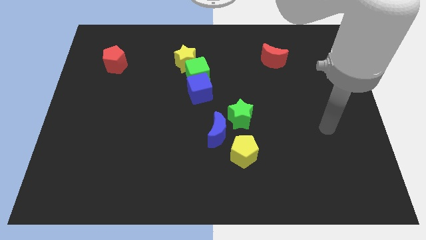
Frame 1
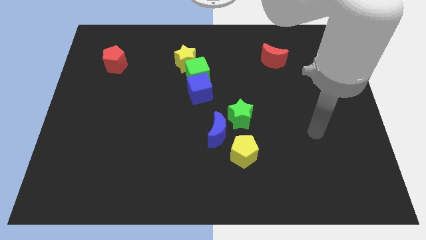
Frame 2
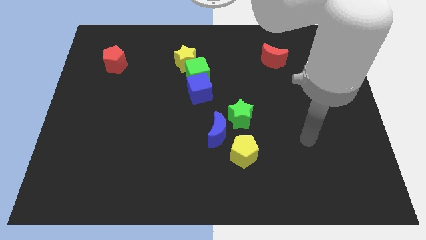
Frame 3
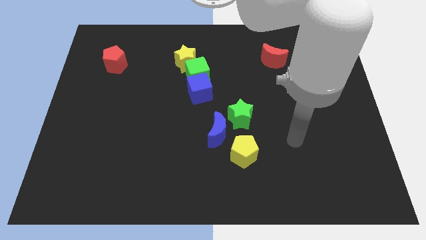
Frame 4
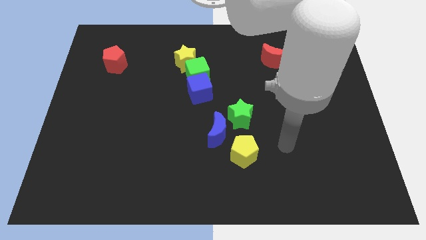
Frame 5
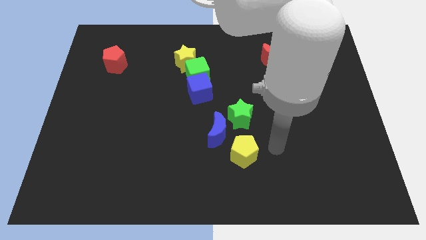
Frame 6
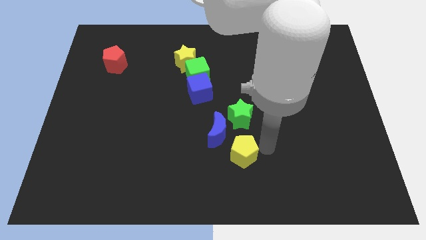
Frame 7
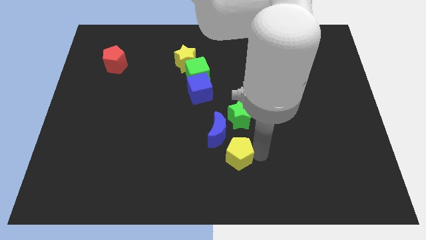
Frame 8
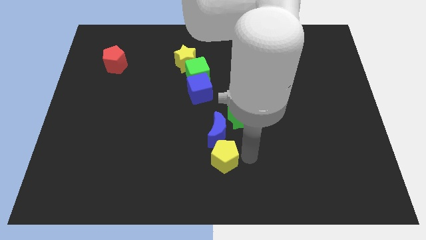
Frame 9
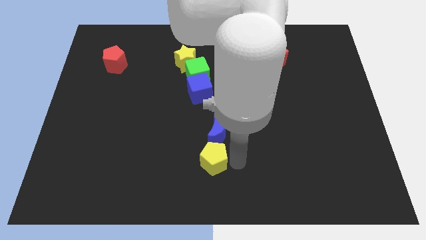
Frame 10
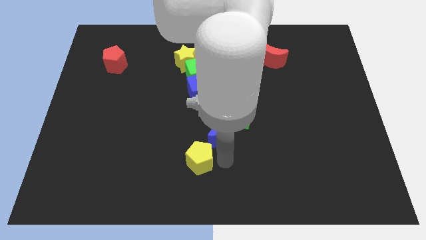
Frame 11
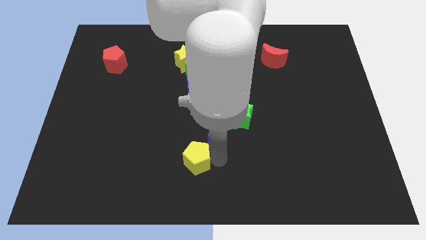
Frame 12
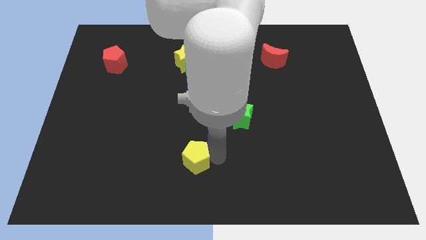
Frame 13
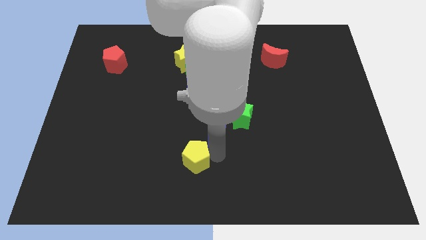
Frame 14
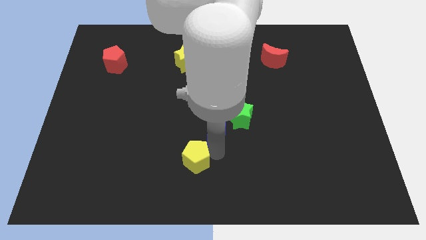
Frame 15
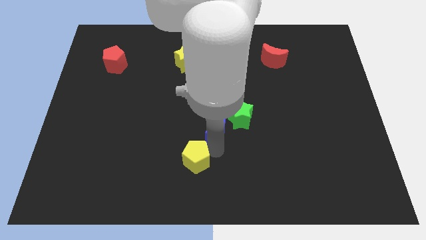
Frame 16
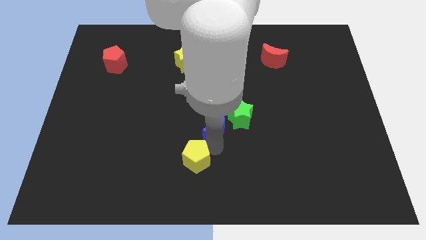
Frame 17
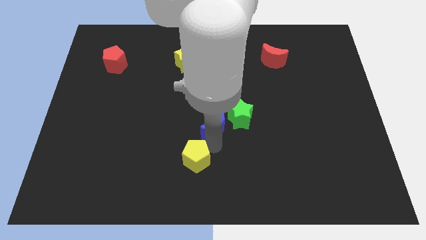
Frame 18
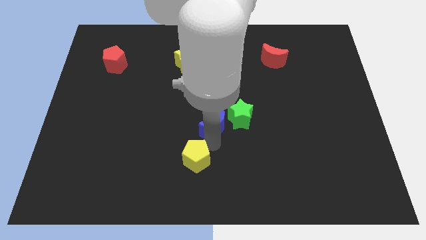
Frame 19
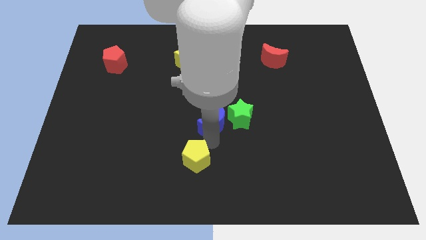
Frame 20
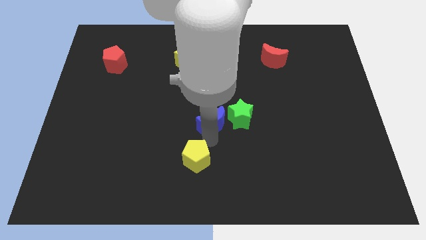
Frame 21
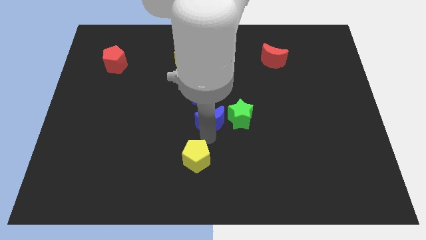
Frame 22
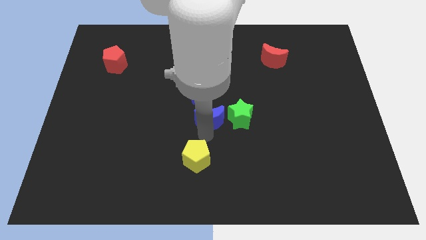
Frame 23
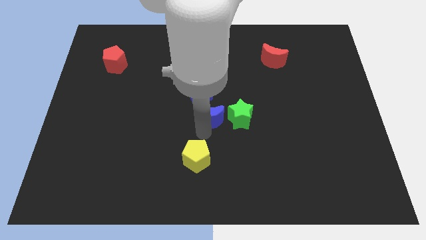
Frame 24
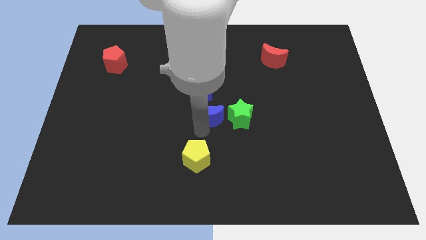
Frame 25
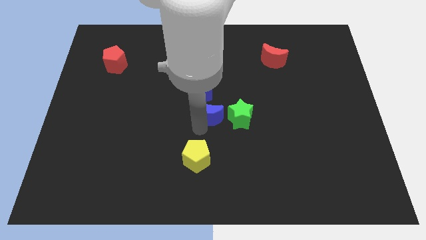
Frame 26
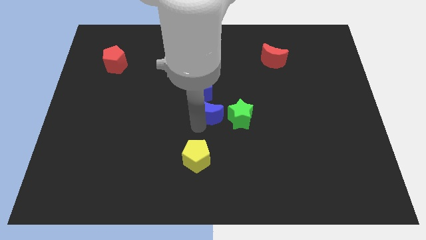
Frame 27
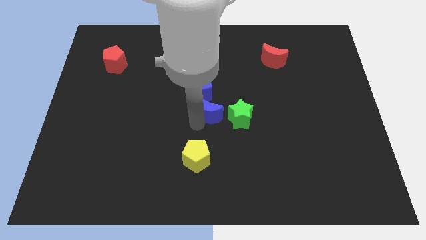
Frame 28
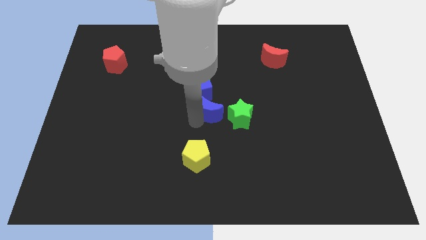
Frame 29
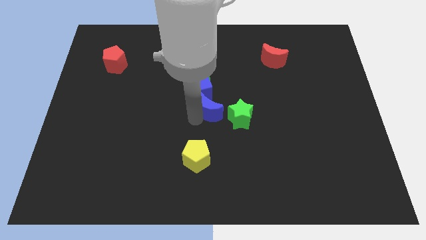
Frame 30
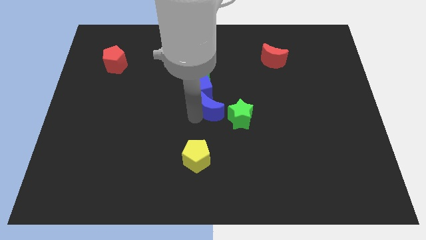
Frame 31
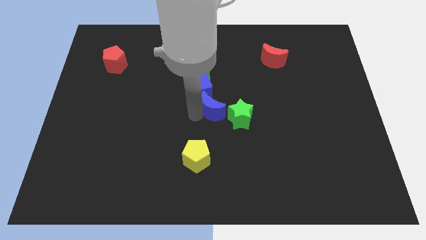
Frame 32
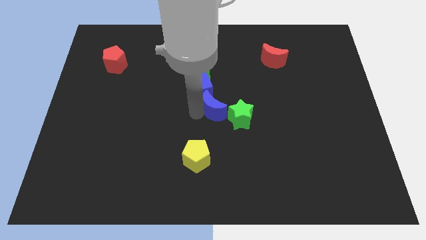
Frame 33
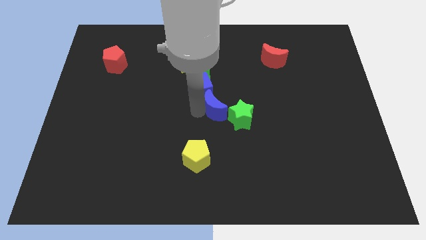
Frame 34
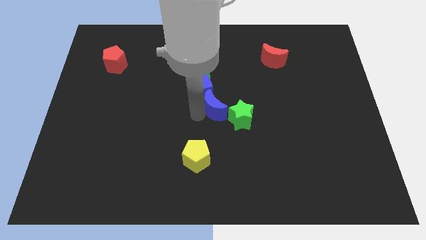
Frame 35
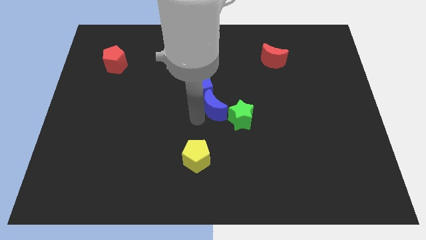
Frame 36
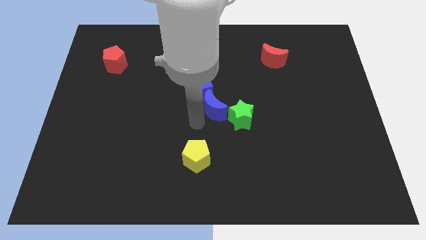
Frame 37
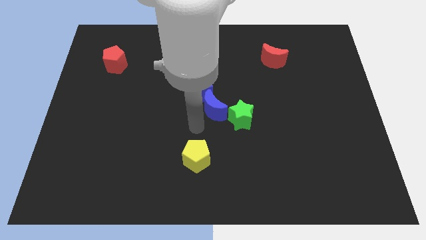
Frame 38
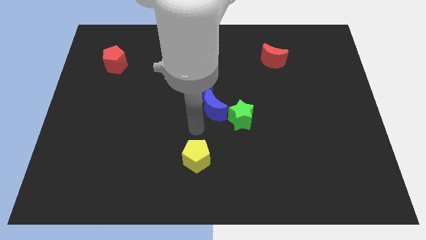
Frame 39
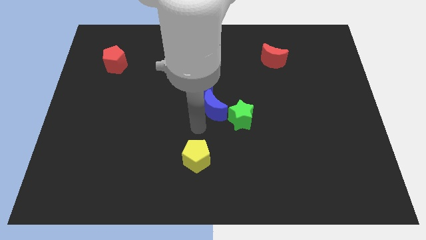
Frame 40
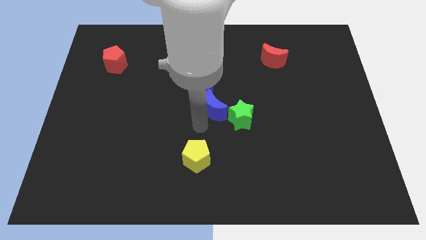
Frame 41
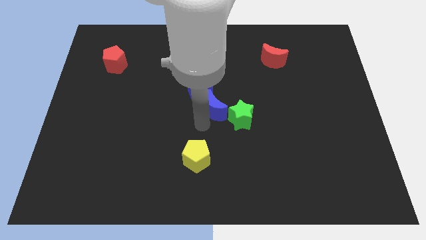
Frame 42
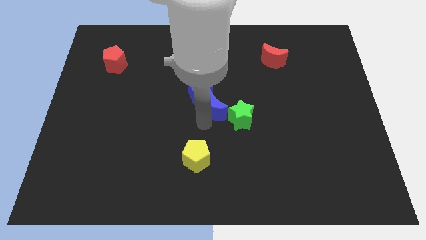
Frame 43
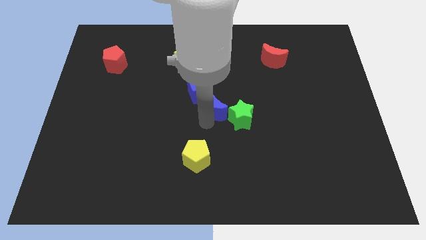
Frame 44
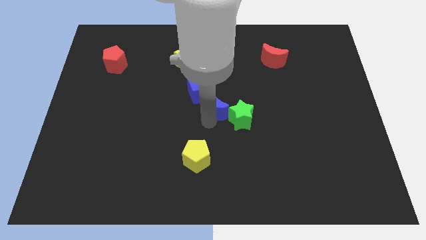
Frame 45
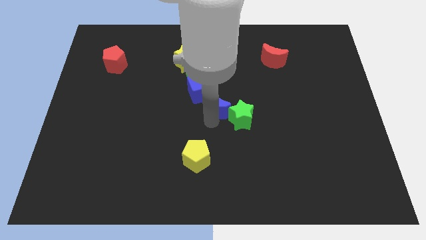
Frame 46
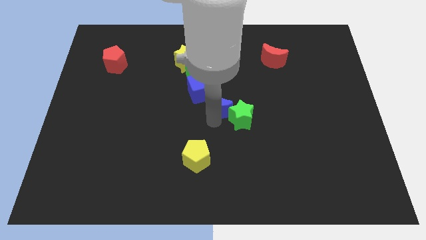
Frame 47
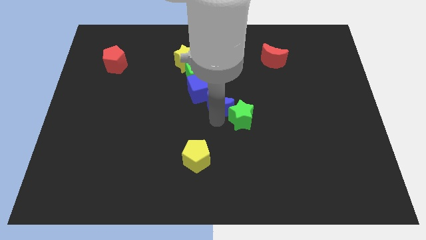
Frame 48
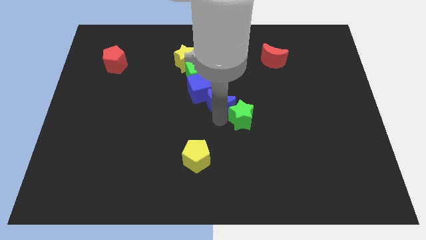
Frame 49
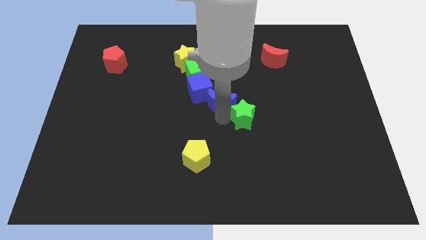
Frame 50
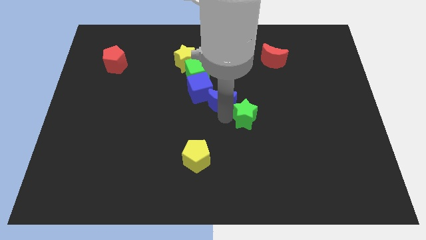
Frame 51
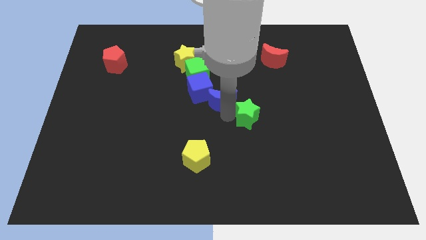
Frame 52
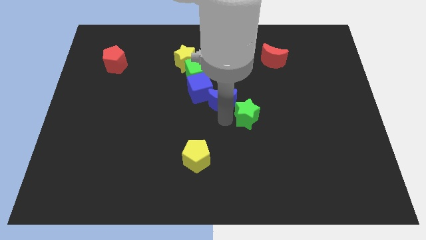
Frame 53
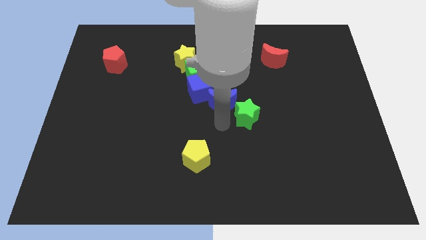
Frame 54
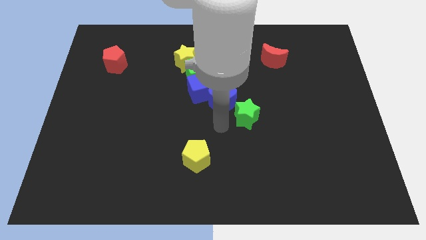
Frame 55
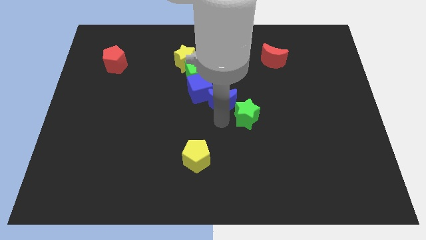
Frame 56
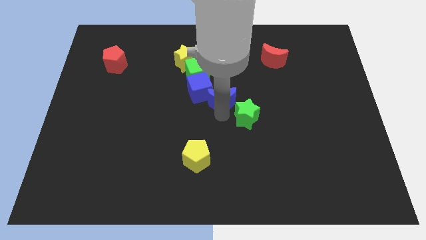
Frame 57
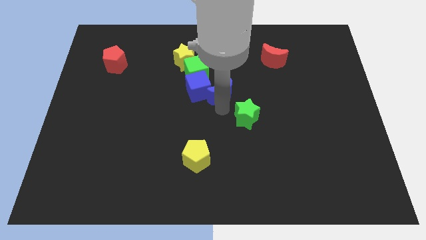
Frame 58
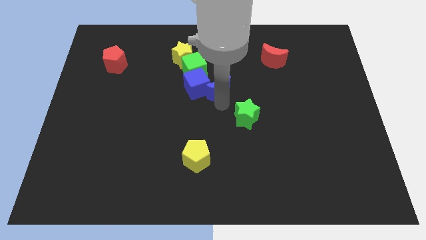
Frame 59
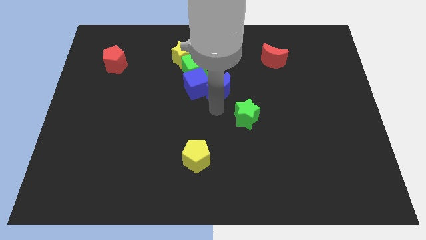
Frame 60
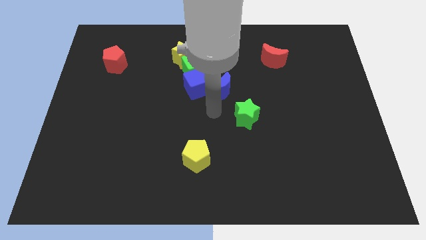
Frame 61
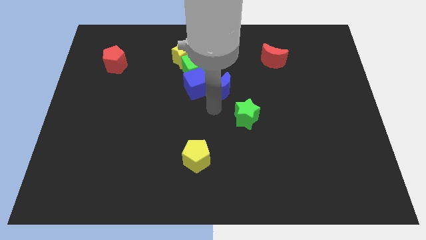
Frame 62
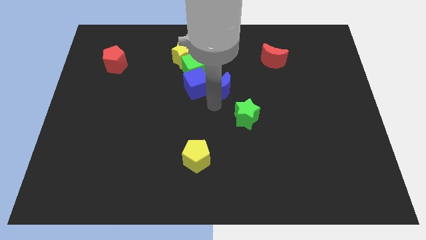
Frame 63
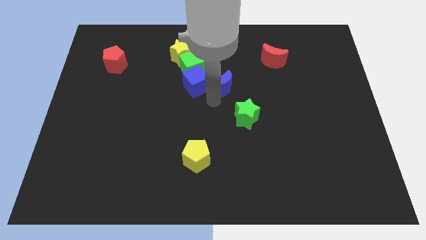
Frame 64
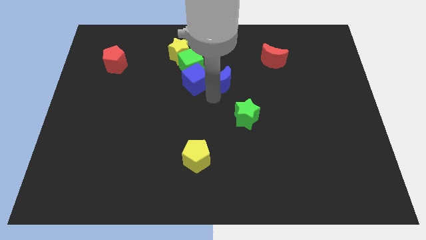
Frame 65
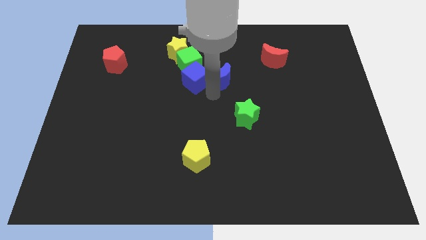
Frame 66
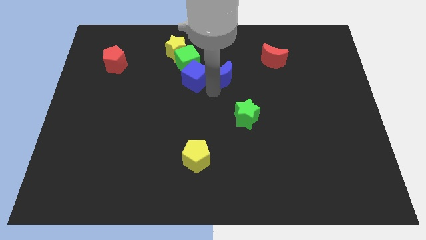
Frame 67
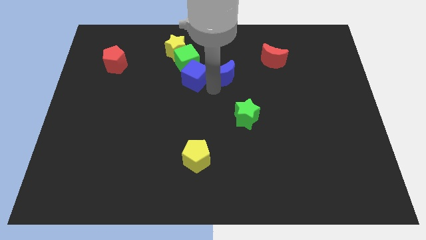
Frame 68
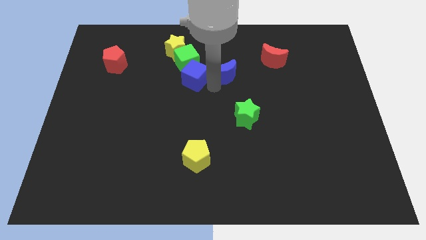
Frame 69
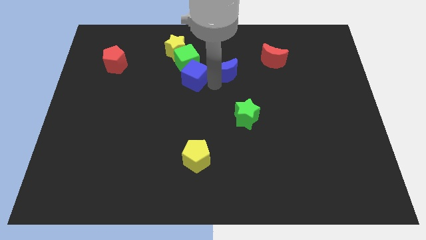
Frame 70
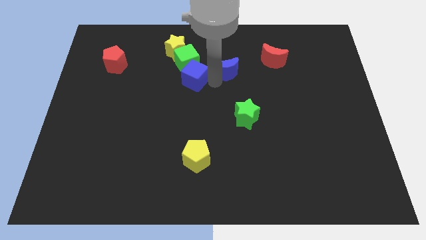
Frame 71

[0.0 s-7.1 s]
move the blue moon just left of the red moon

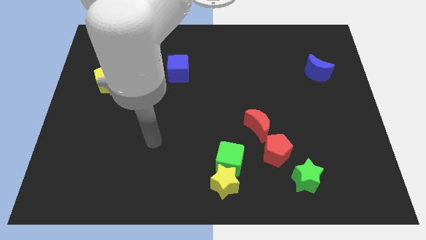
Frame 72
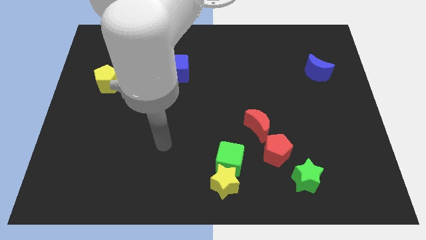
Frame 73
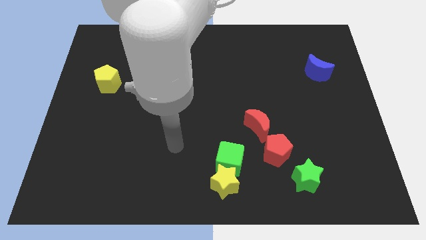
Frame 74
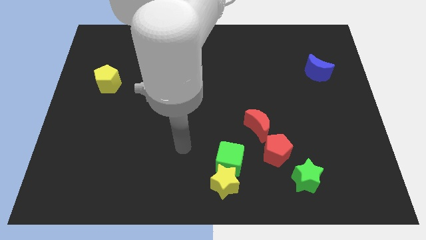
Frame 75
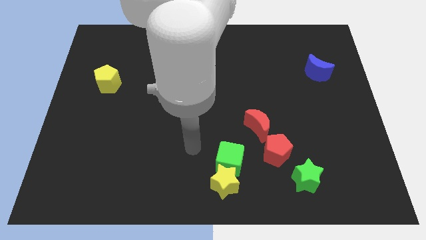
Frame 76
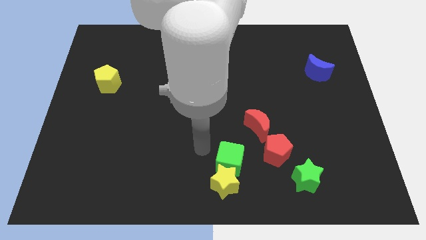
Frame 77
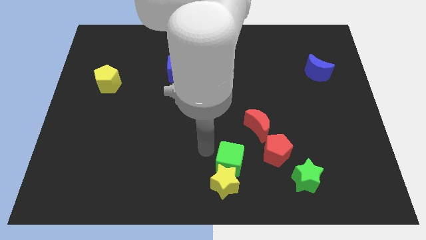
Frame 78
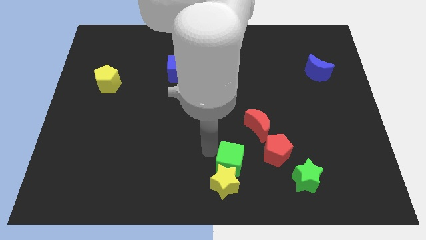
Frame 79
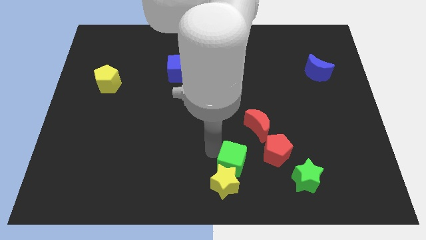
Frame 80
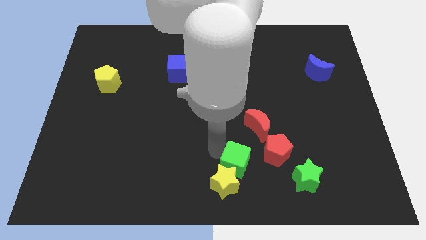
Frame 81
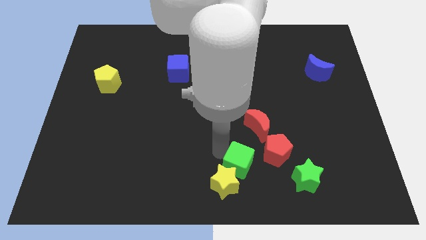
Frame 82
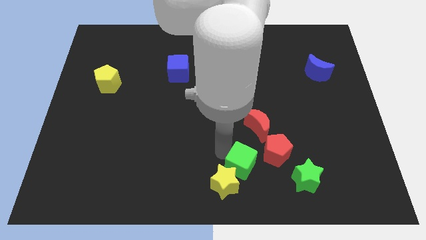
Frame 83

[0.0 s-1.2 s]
move the green cube to the right of the yellow star
